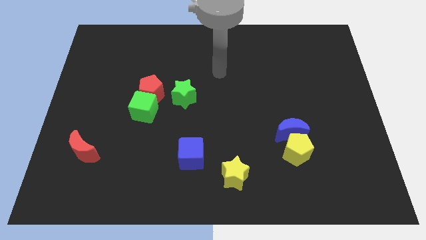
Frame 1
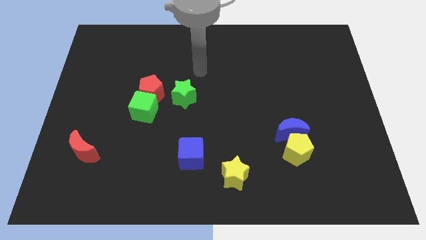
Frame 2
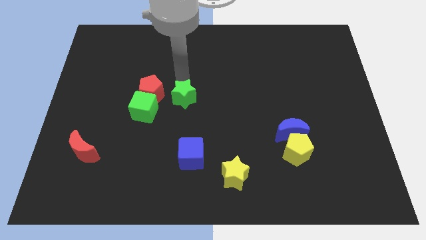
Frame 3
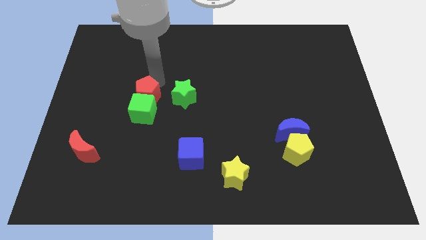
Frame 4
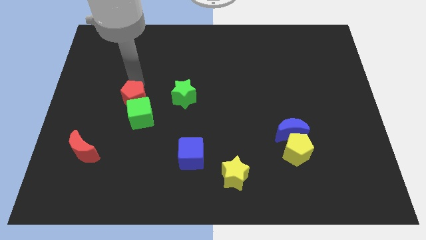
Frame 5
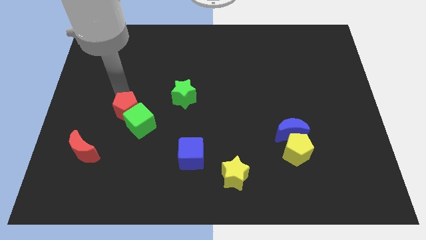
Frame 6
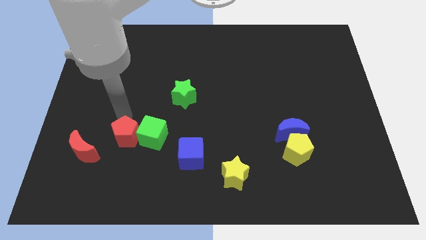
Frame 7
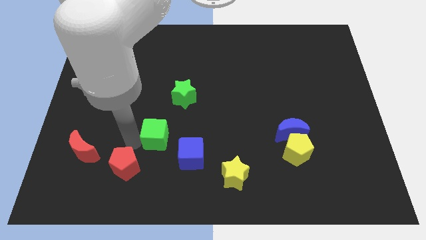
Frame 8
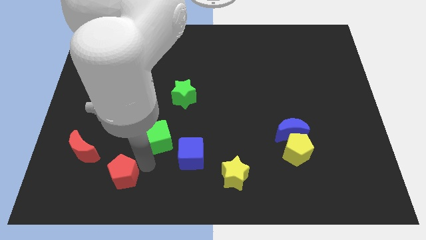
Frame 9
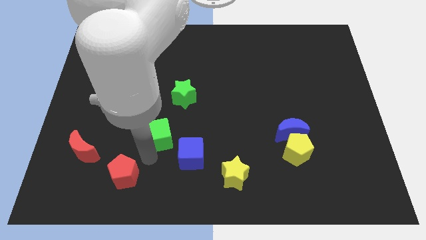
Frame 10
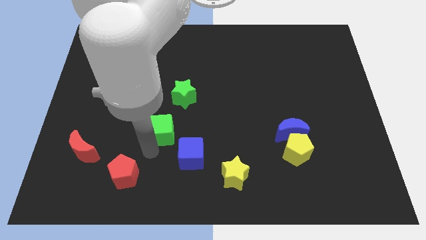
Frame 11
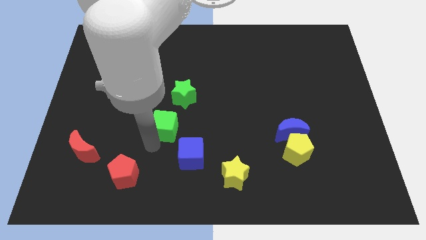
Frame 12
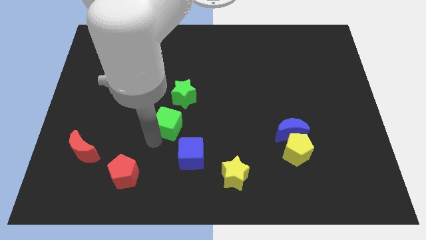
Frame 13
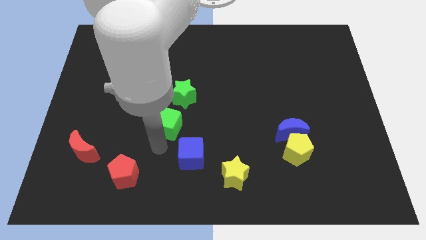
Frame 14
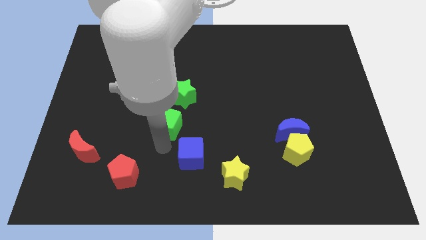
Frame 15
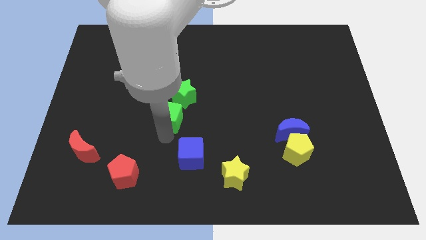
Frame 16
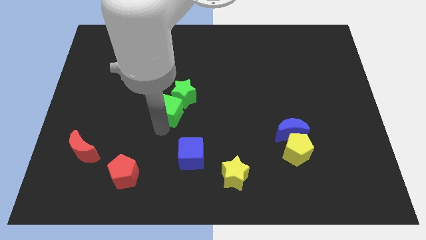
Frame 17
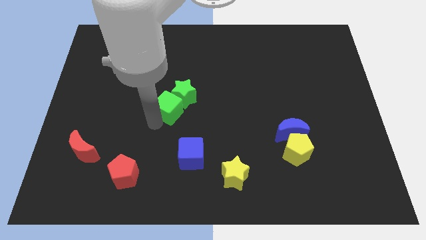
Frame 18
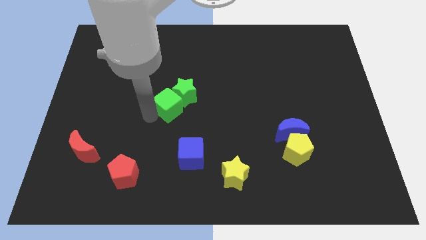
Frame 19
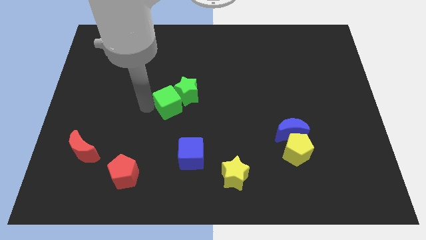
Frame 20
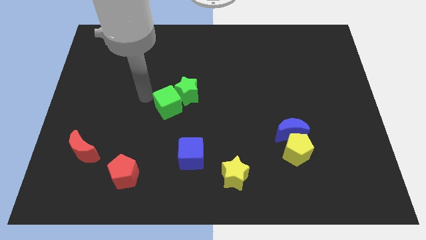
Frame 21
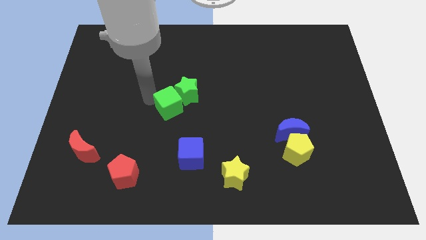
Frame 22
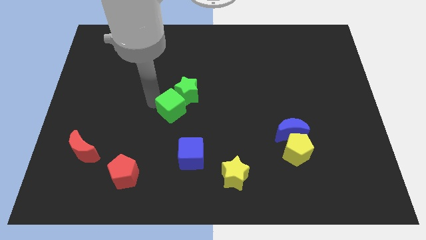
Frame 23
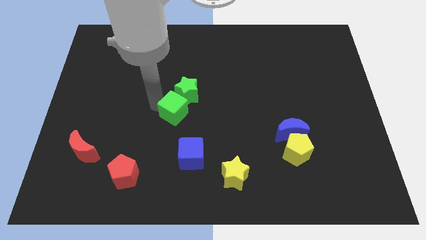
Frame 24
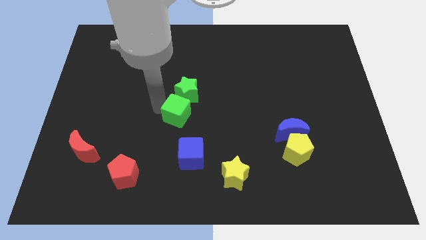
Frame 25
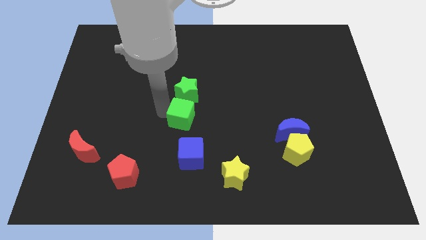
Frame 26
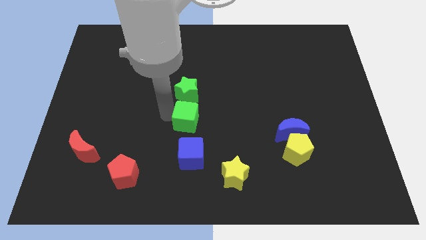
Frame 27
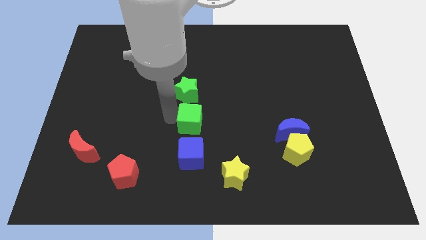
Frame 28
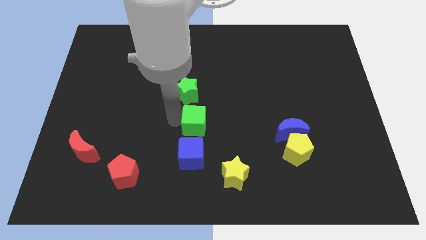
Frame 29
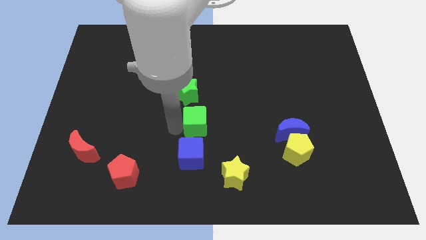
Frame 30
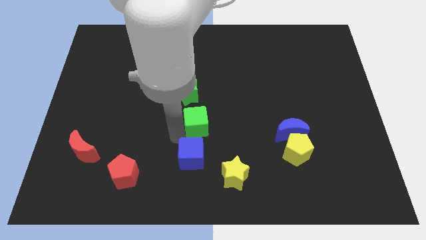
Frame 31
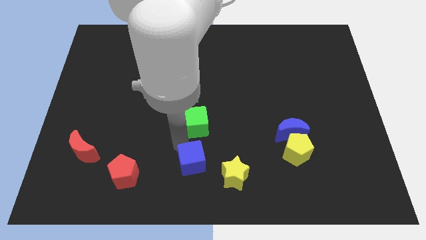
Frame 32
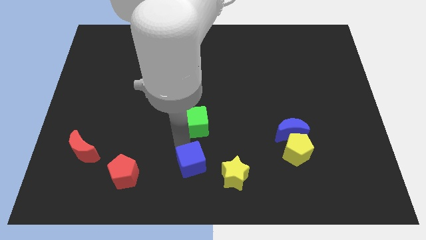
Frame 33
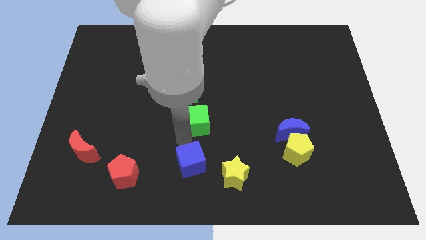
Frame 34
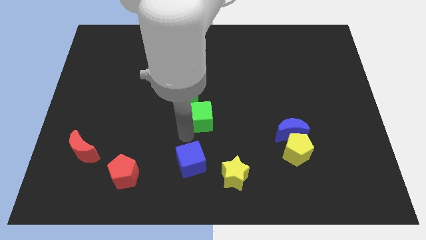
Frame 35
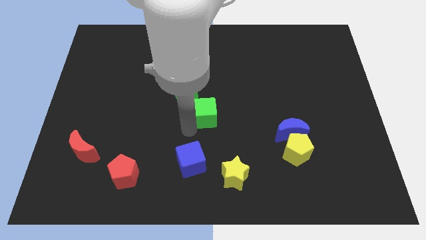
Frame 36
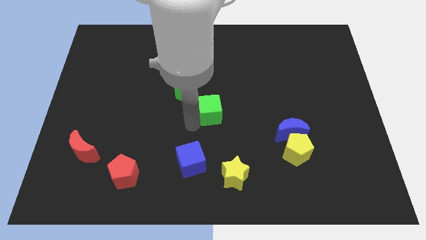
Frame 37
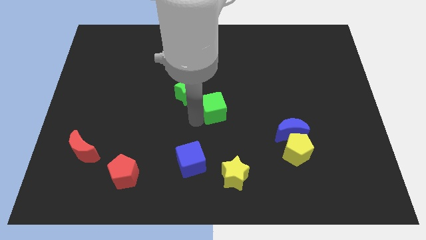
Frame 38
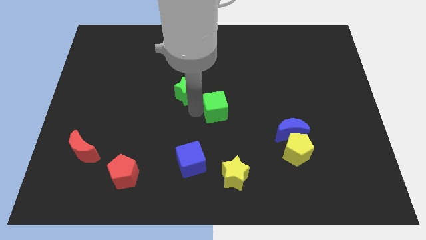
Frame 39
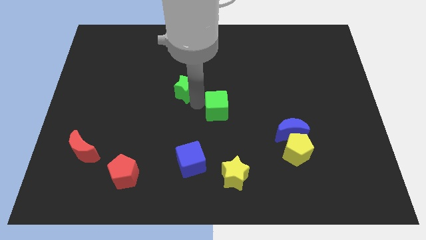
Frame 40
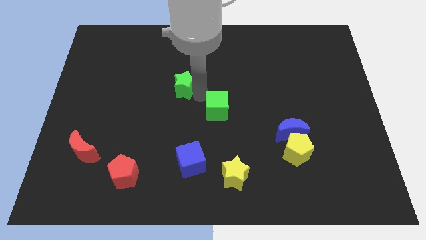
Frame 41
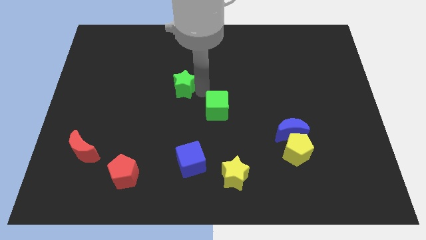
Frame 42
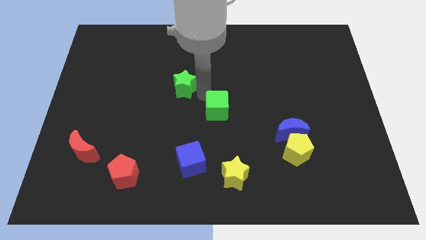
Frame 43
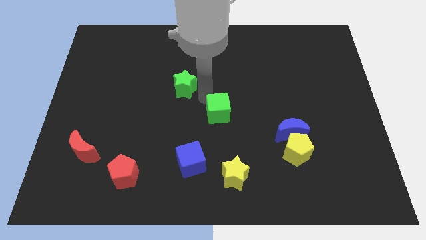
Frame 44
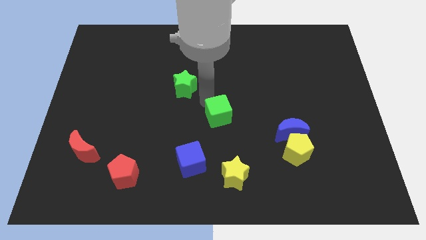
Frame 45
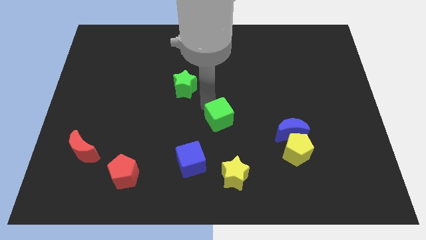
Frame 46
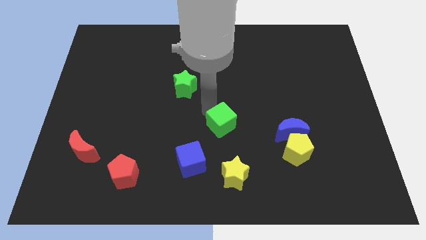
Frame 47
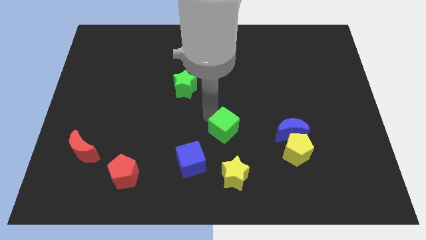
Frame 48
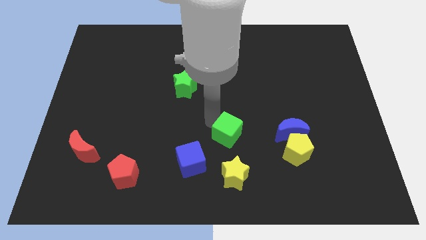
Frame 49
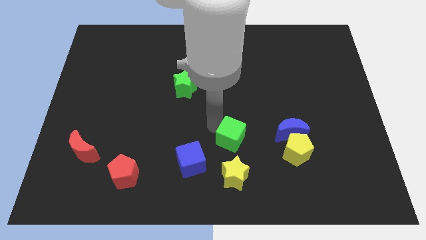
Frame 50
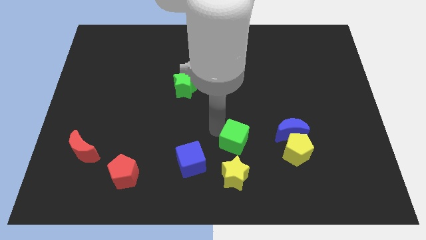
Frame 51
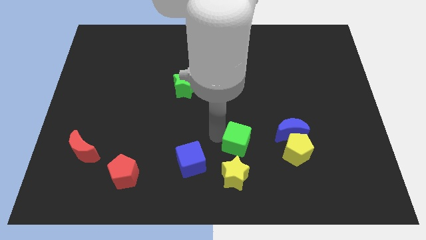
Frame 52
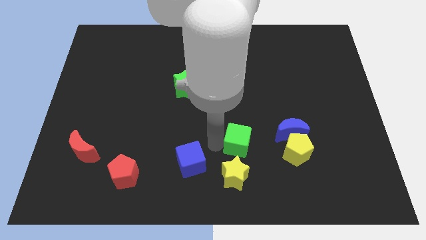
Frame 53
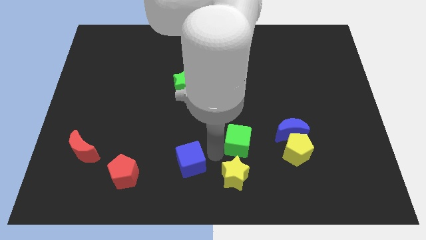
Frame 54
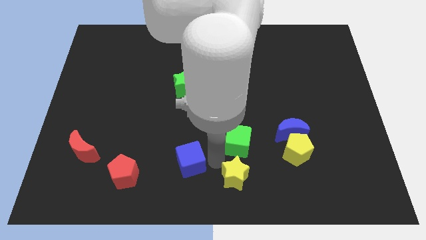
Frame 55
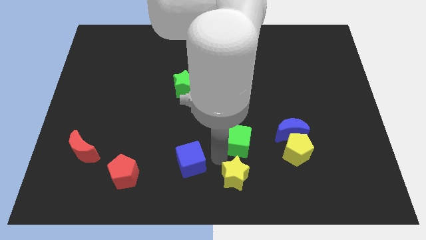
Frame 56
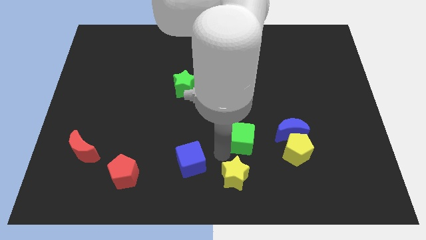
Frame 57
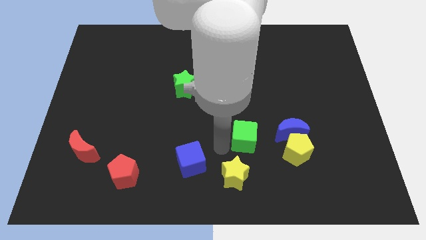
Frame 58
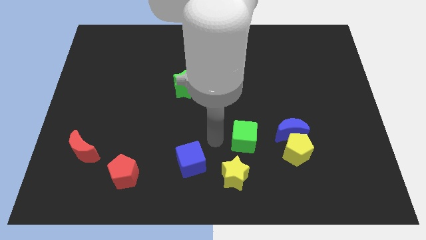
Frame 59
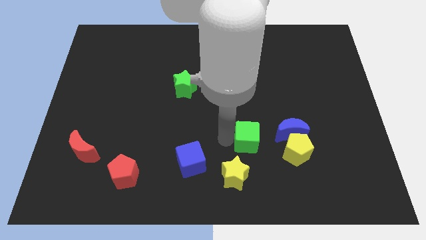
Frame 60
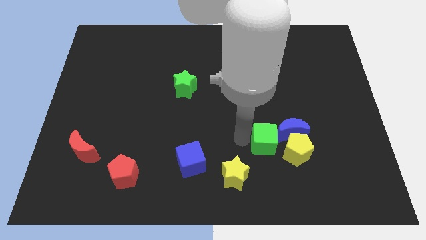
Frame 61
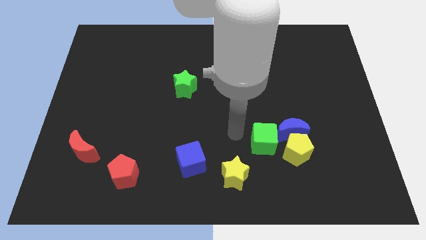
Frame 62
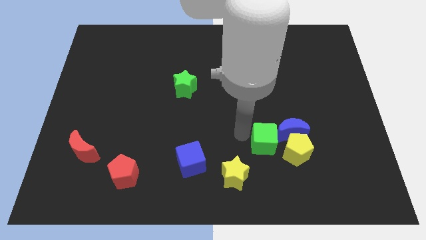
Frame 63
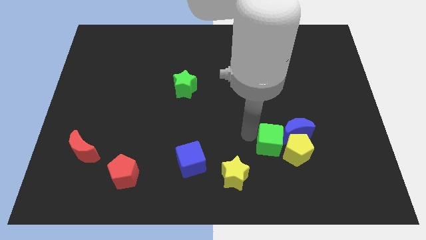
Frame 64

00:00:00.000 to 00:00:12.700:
move the green cube towards the yellow pentagon
